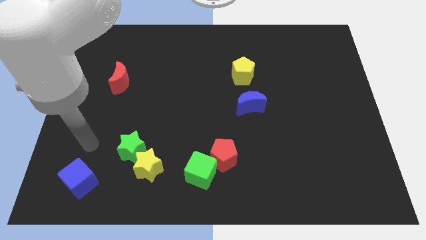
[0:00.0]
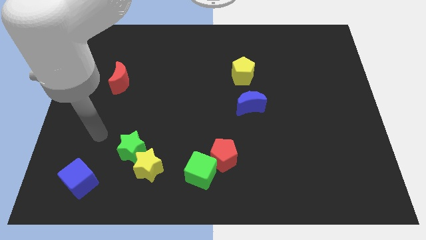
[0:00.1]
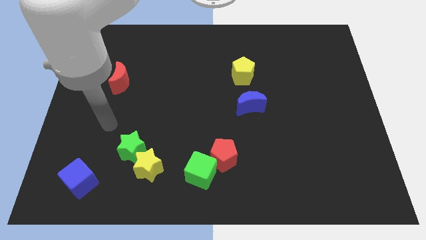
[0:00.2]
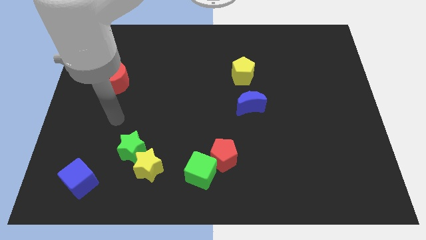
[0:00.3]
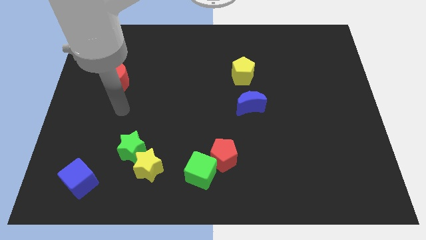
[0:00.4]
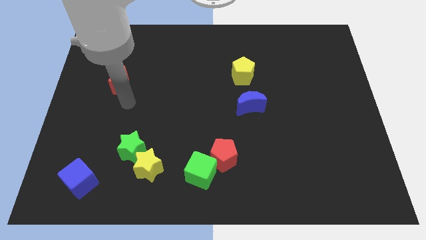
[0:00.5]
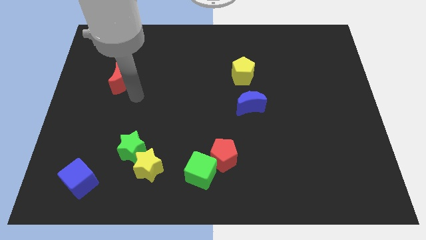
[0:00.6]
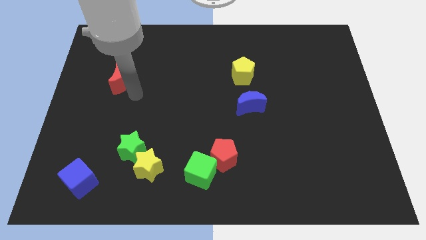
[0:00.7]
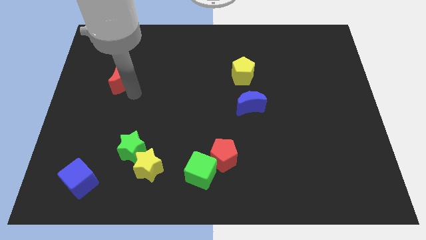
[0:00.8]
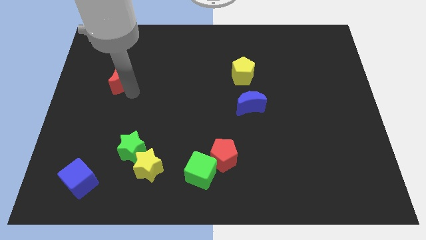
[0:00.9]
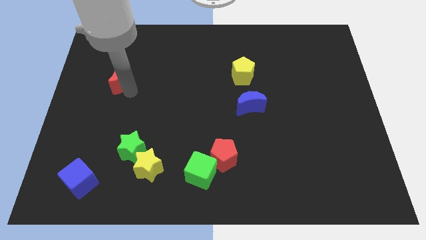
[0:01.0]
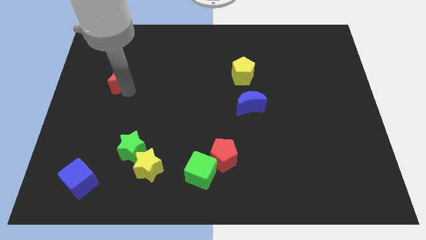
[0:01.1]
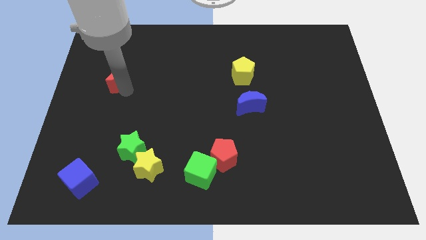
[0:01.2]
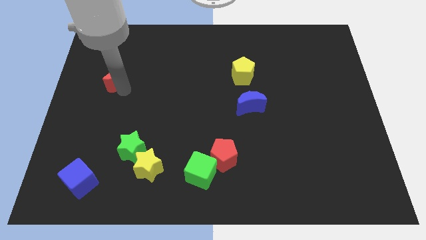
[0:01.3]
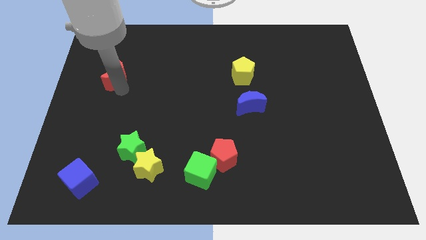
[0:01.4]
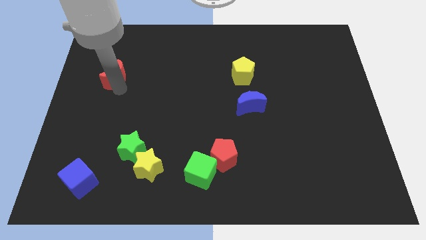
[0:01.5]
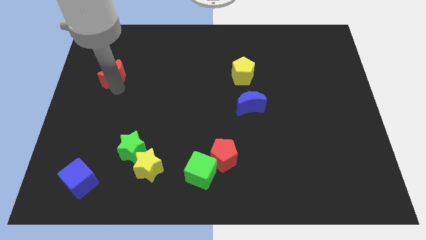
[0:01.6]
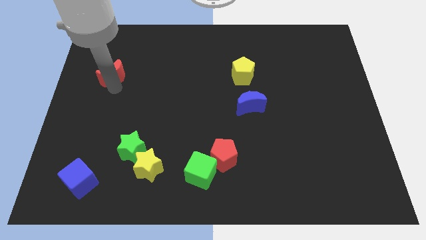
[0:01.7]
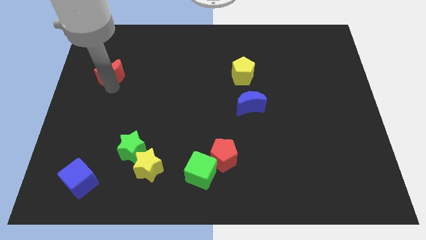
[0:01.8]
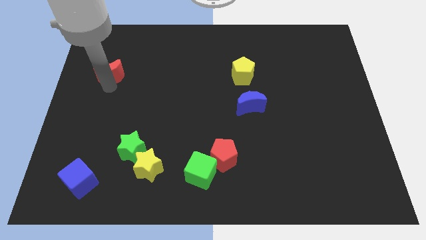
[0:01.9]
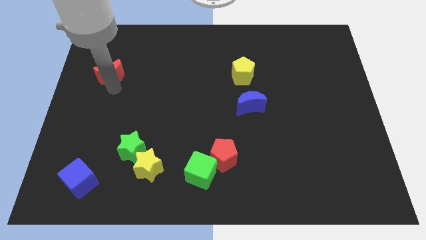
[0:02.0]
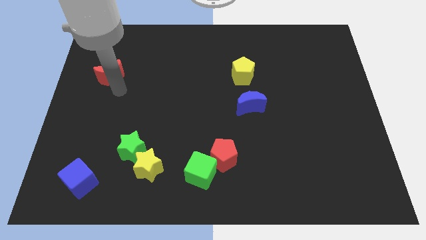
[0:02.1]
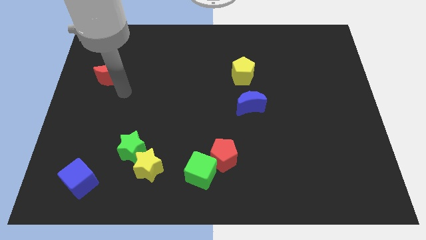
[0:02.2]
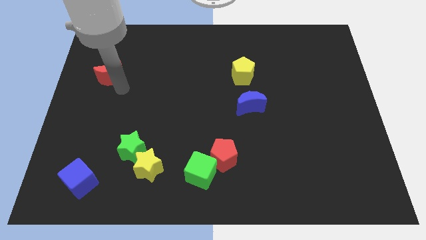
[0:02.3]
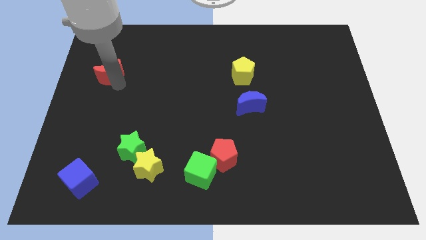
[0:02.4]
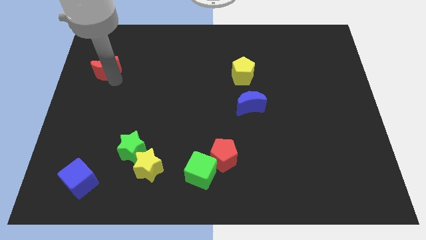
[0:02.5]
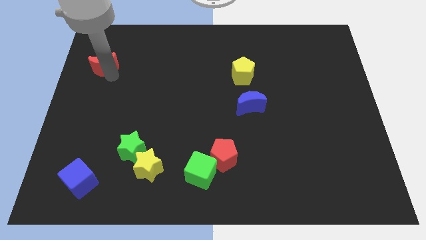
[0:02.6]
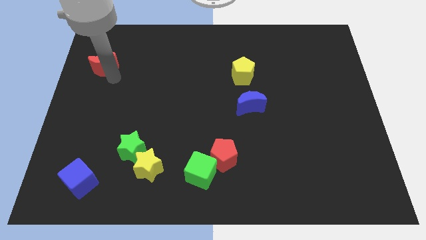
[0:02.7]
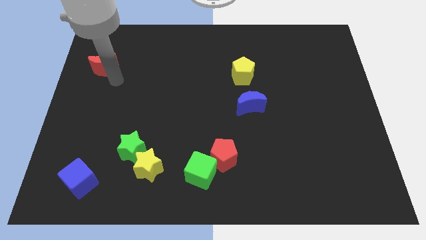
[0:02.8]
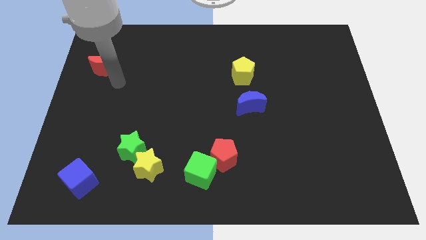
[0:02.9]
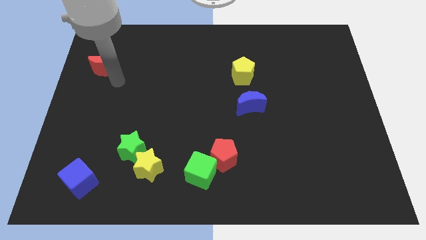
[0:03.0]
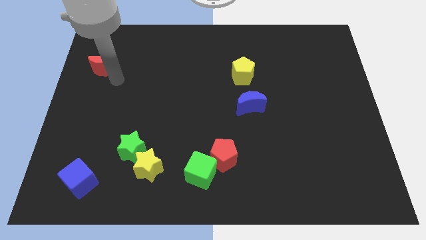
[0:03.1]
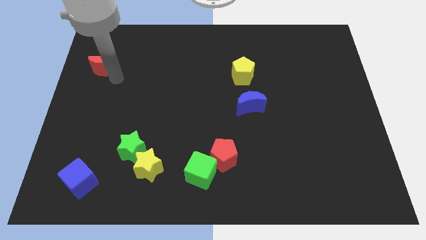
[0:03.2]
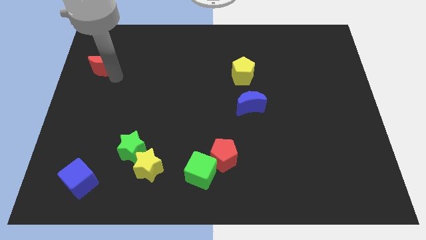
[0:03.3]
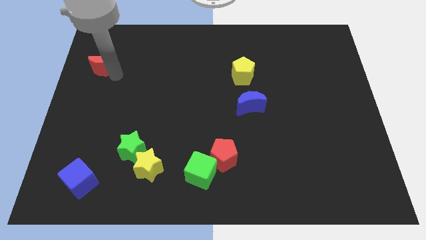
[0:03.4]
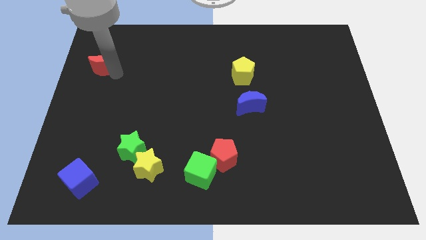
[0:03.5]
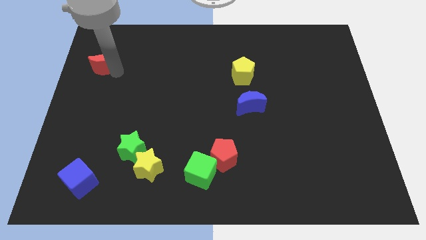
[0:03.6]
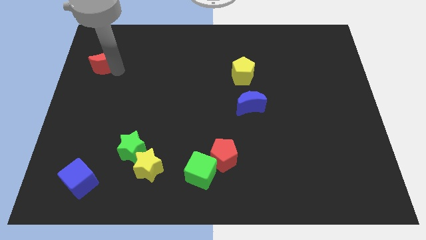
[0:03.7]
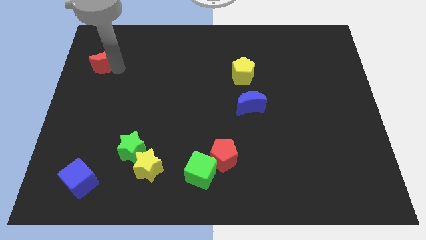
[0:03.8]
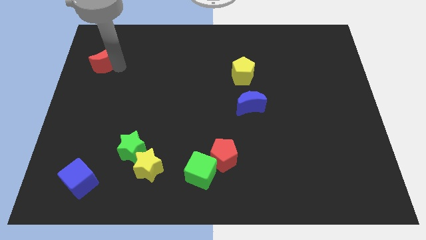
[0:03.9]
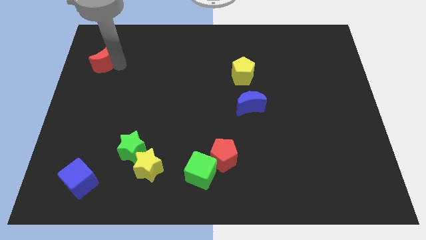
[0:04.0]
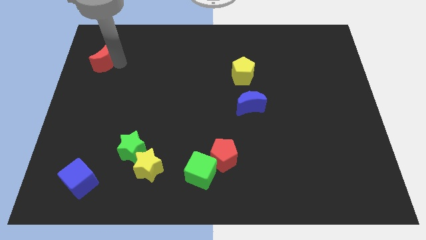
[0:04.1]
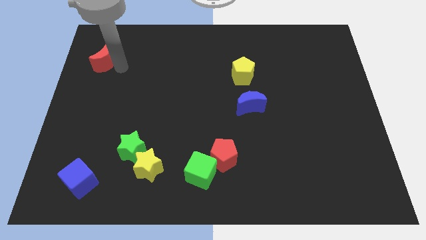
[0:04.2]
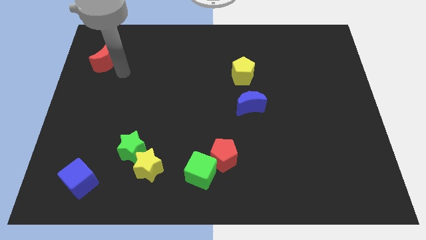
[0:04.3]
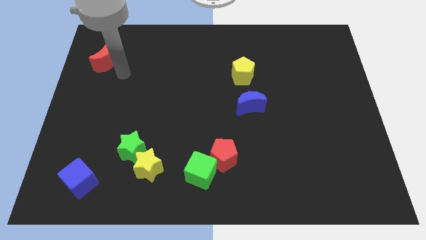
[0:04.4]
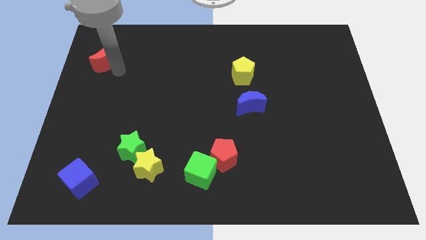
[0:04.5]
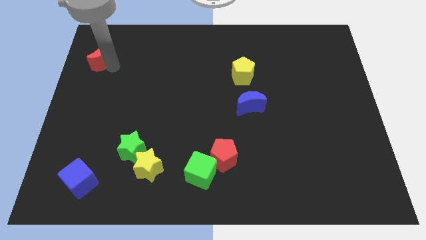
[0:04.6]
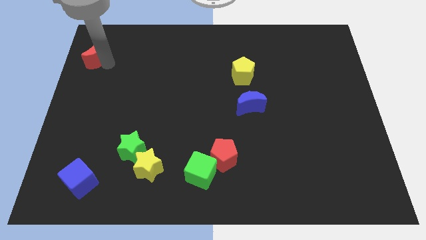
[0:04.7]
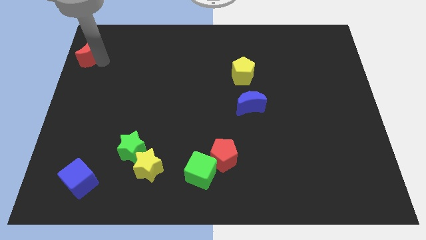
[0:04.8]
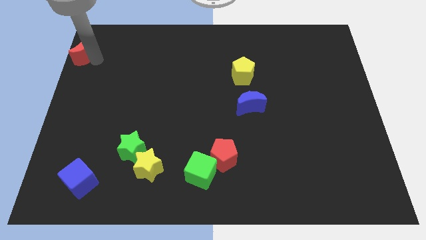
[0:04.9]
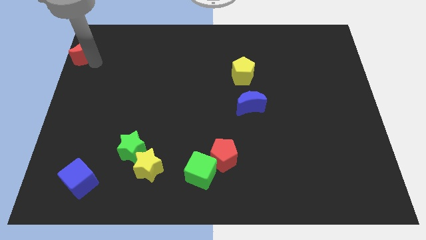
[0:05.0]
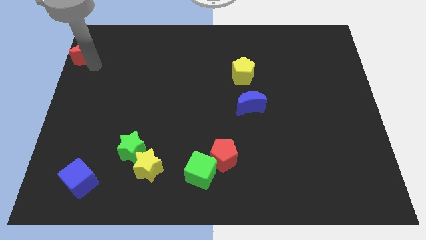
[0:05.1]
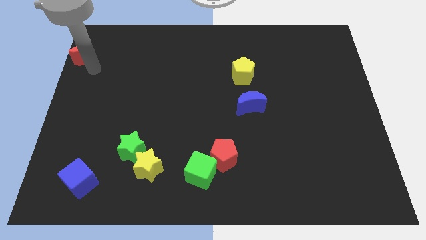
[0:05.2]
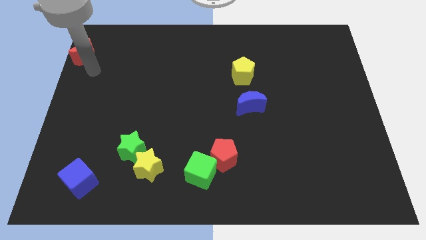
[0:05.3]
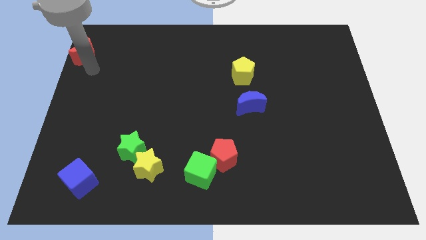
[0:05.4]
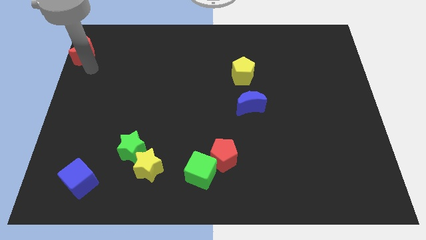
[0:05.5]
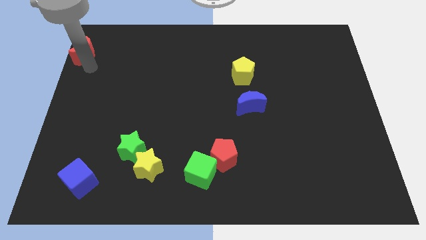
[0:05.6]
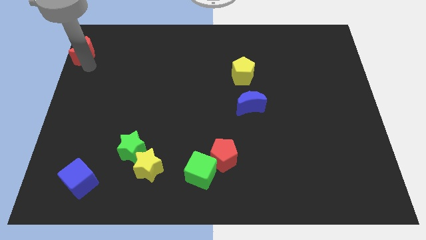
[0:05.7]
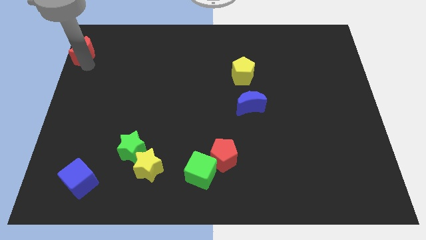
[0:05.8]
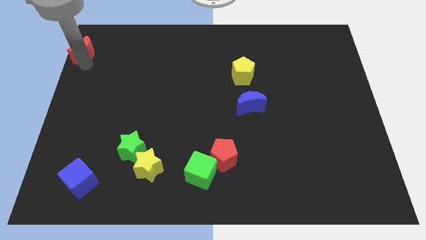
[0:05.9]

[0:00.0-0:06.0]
put the red moon to the top left of the board

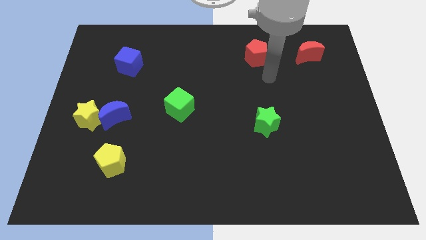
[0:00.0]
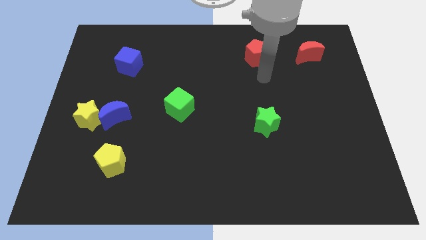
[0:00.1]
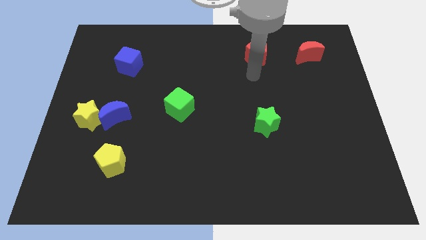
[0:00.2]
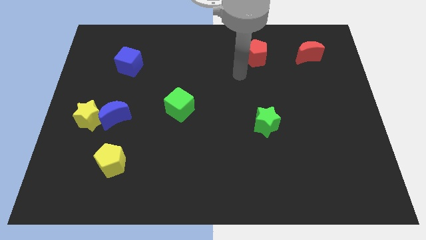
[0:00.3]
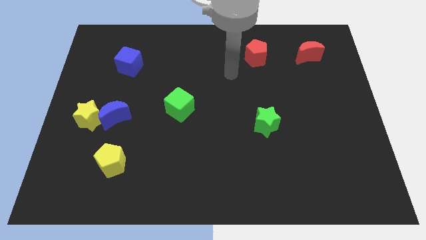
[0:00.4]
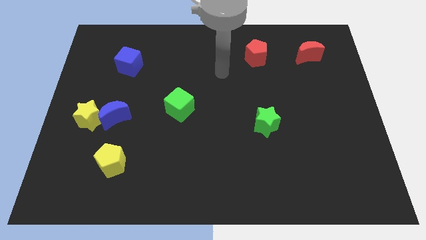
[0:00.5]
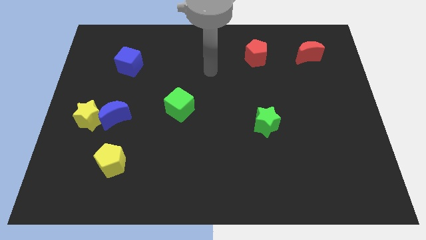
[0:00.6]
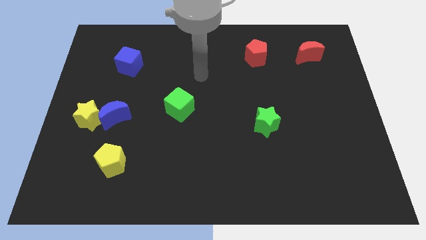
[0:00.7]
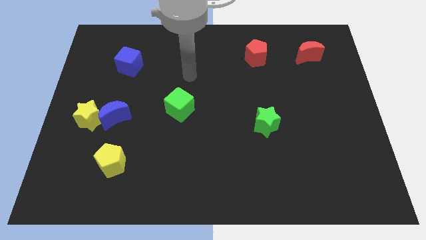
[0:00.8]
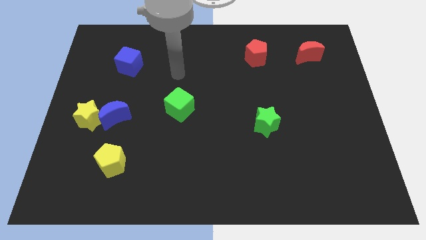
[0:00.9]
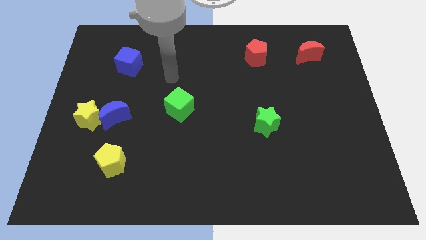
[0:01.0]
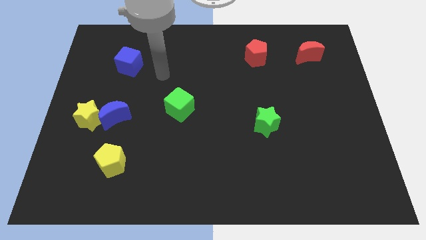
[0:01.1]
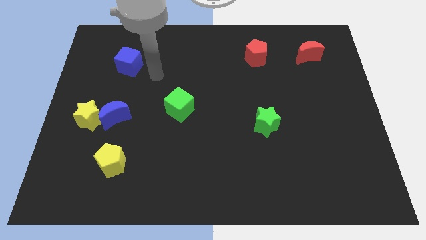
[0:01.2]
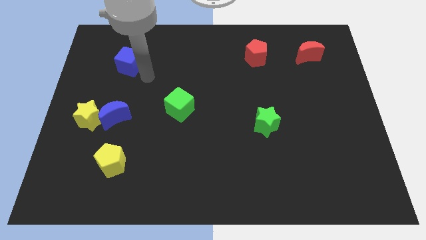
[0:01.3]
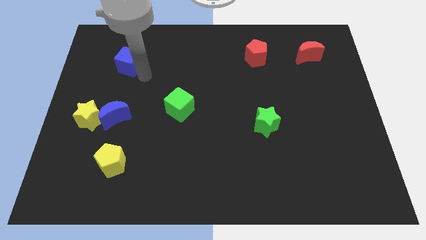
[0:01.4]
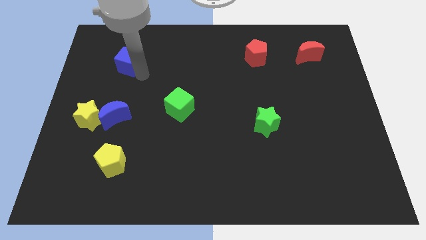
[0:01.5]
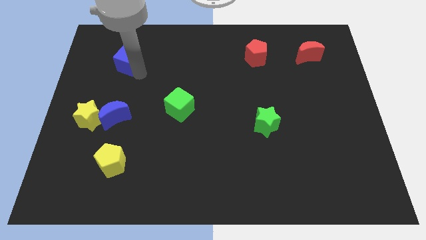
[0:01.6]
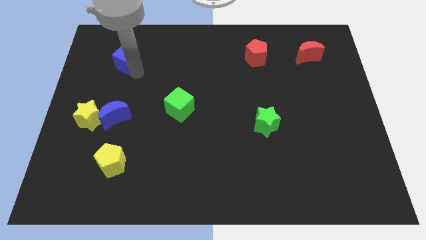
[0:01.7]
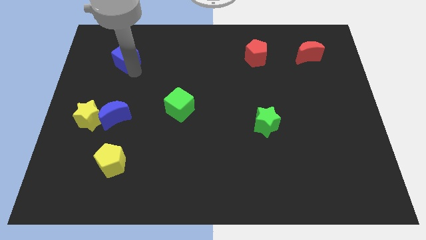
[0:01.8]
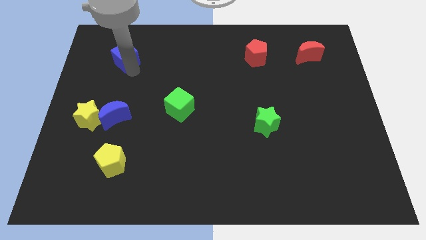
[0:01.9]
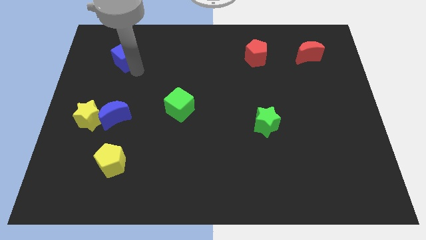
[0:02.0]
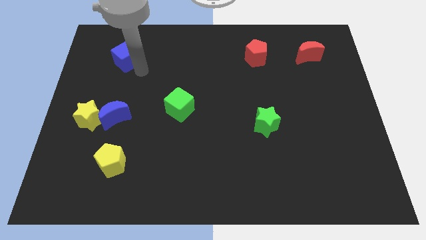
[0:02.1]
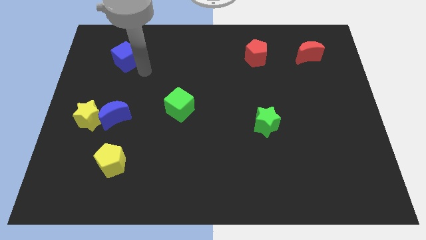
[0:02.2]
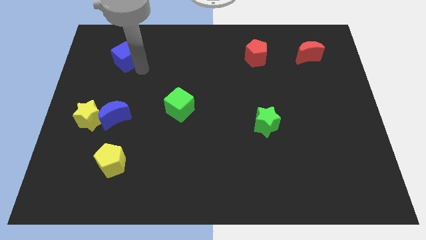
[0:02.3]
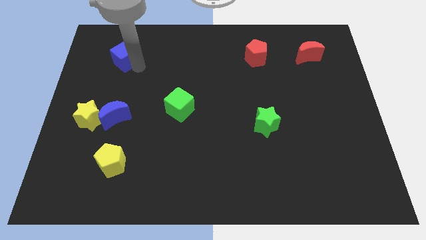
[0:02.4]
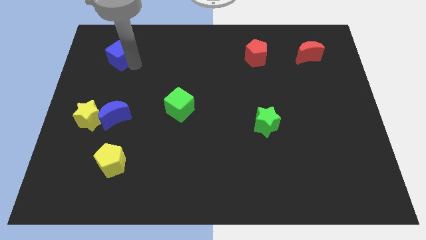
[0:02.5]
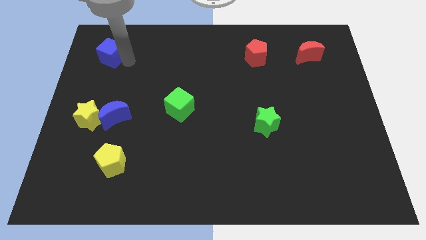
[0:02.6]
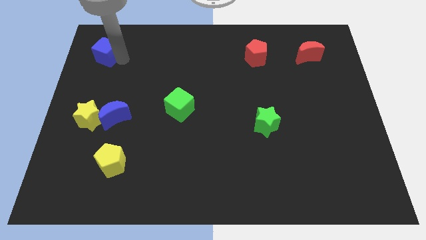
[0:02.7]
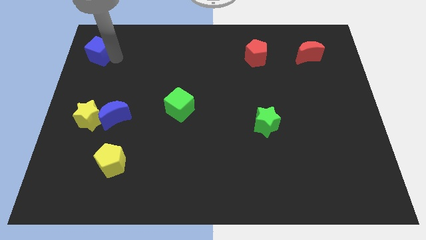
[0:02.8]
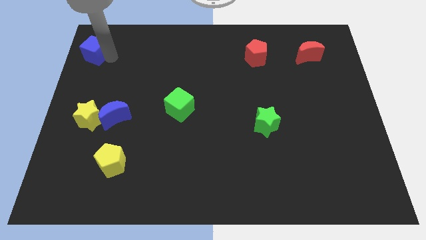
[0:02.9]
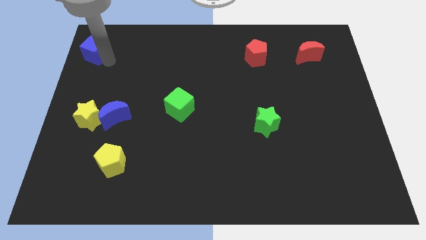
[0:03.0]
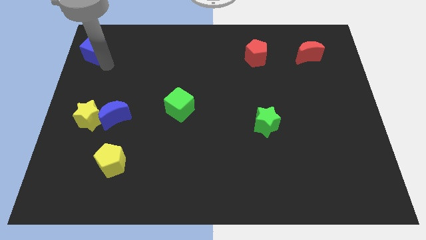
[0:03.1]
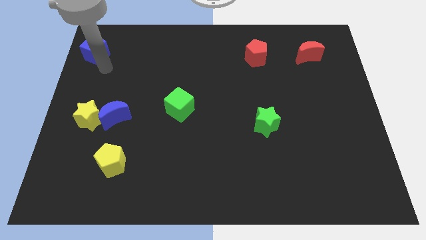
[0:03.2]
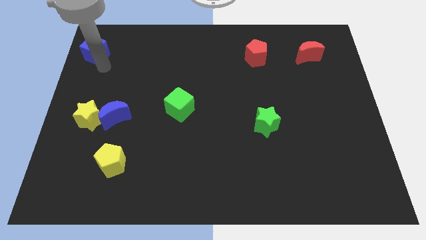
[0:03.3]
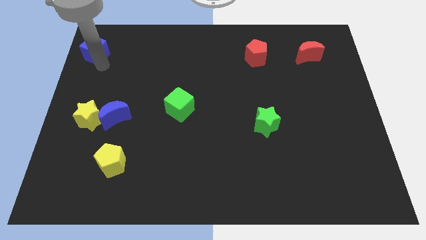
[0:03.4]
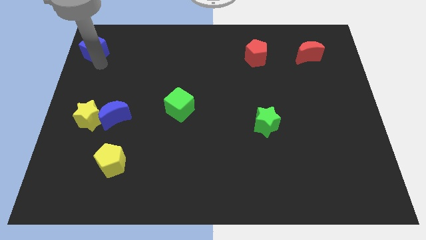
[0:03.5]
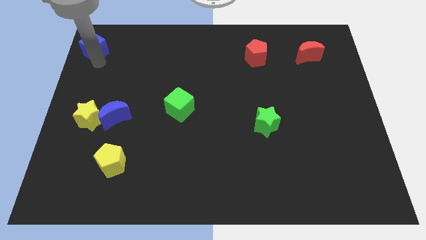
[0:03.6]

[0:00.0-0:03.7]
move the blue cube to the upper left corner
